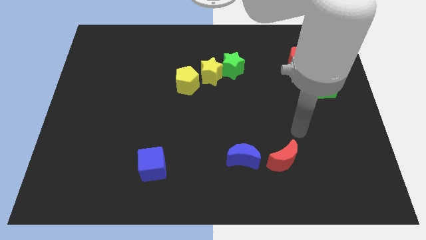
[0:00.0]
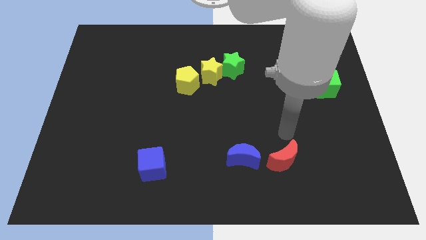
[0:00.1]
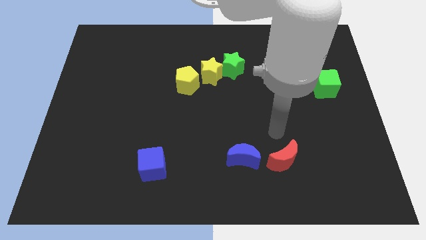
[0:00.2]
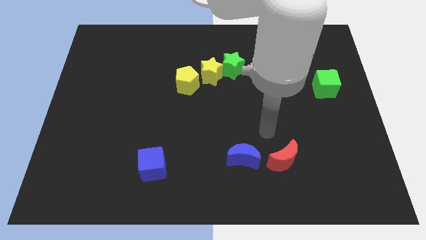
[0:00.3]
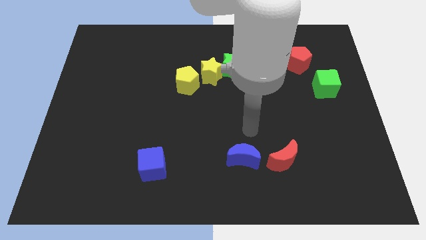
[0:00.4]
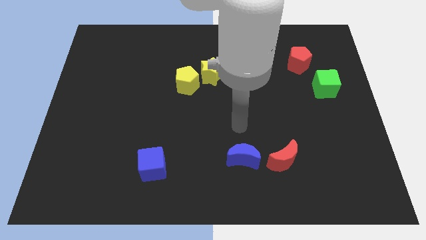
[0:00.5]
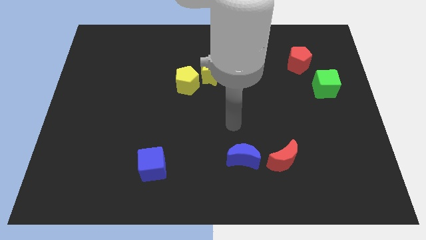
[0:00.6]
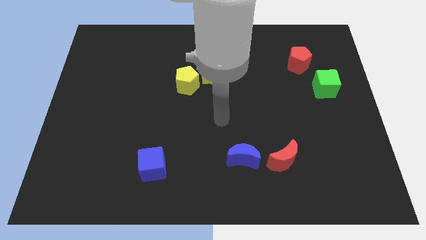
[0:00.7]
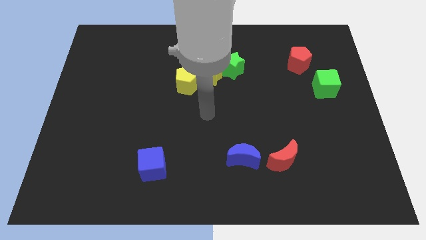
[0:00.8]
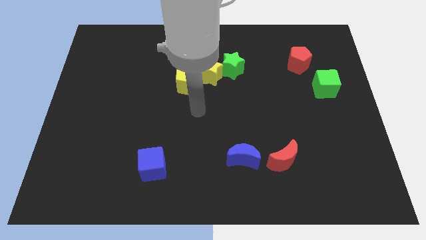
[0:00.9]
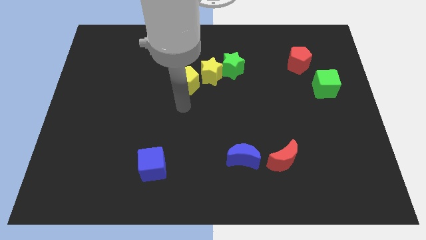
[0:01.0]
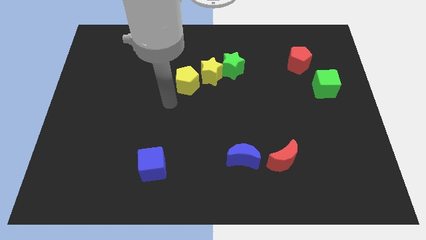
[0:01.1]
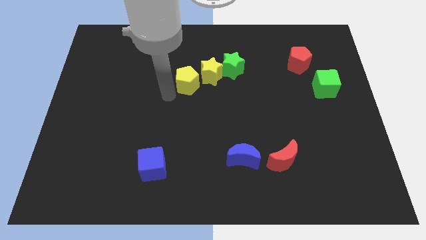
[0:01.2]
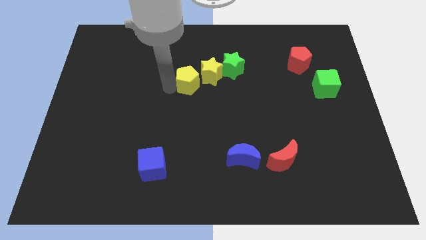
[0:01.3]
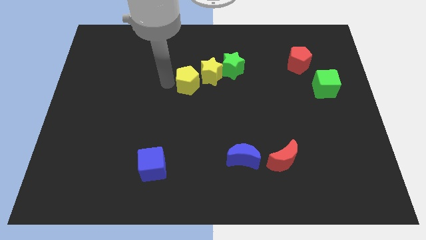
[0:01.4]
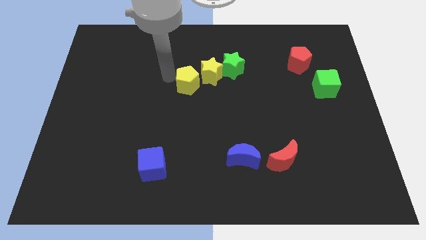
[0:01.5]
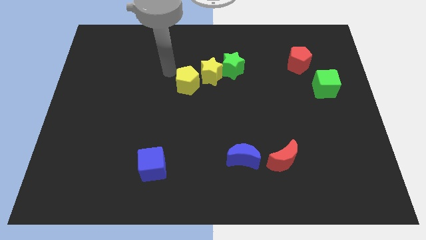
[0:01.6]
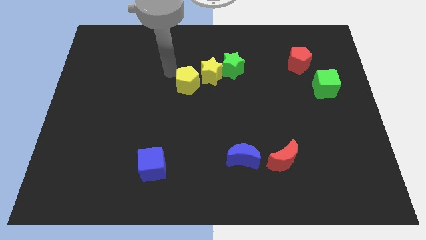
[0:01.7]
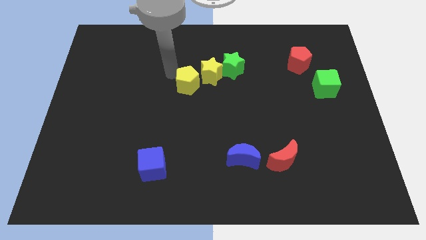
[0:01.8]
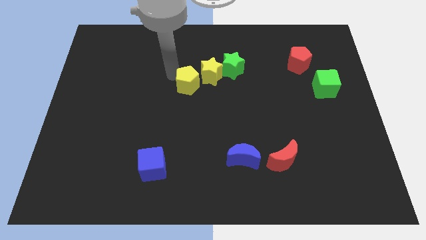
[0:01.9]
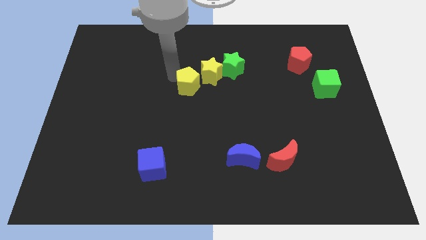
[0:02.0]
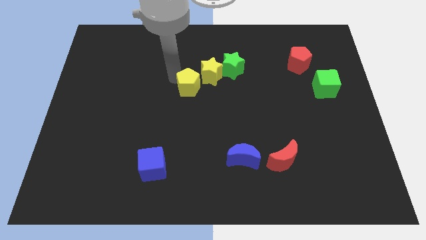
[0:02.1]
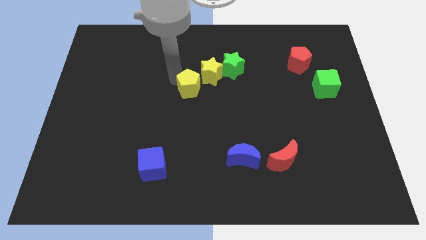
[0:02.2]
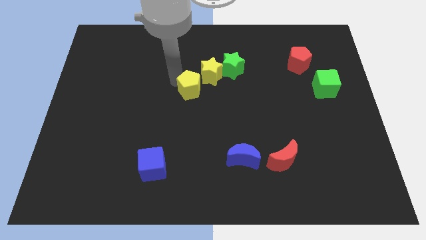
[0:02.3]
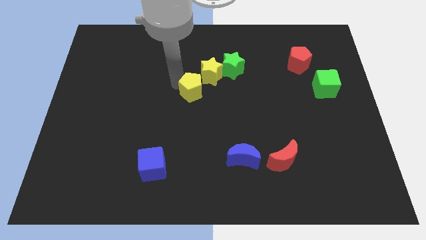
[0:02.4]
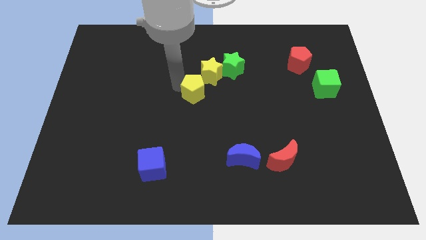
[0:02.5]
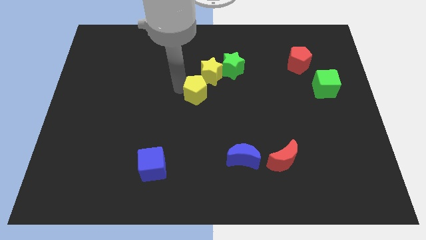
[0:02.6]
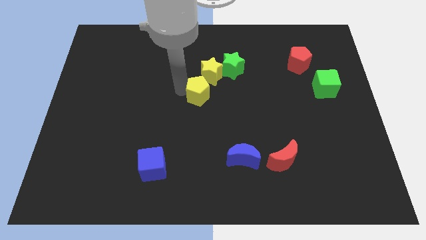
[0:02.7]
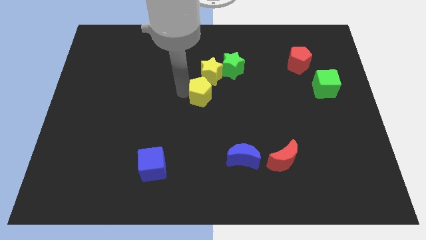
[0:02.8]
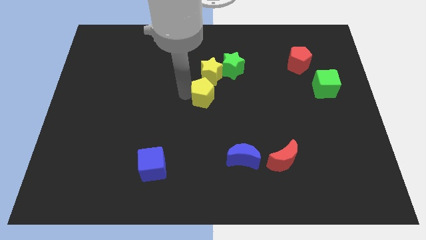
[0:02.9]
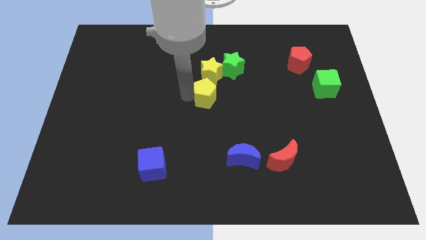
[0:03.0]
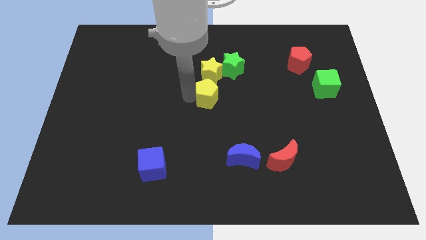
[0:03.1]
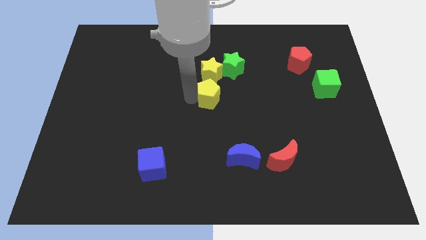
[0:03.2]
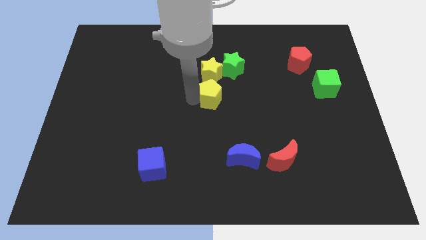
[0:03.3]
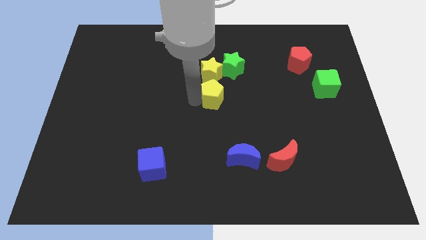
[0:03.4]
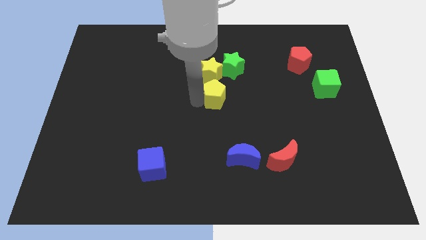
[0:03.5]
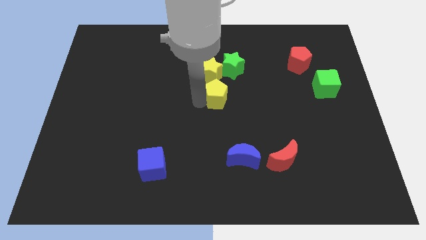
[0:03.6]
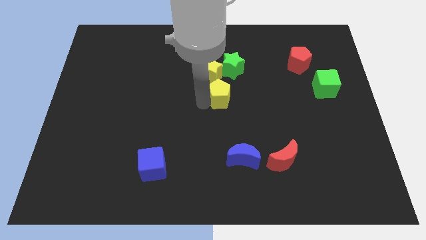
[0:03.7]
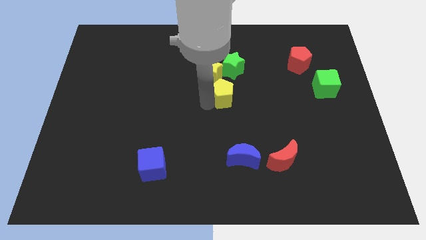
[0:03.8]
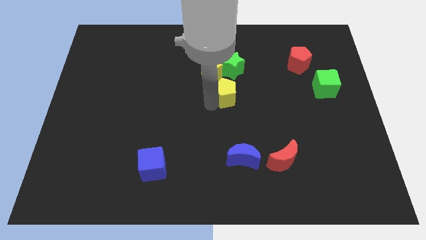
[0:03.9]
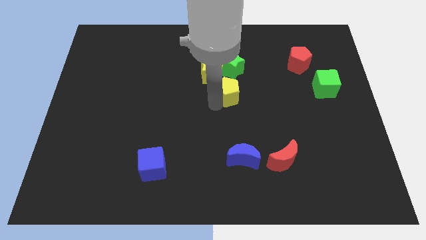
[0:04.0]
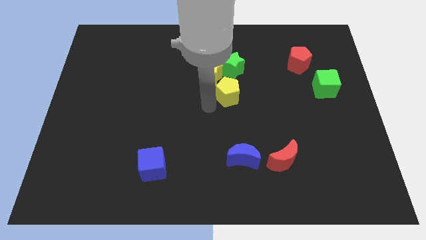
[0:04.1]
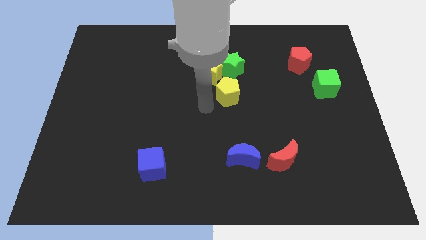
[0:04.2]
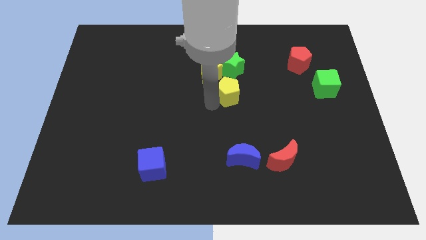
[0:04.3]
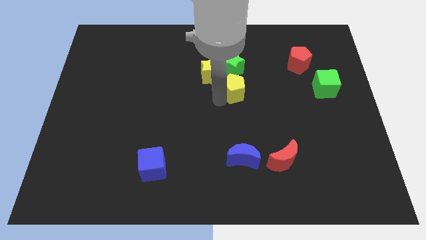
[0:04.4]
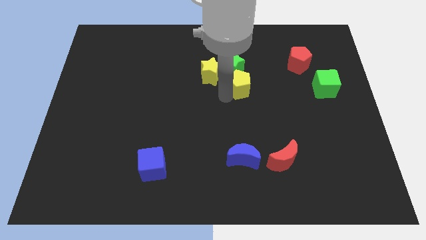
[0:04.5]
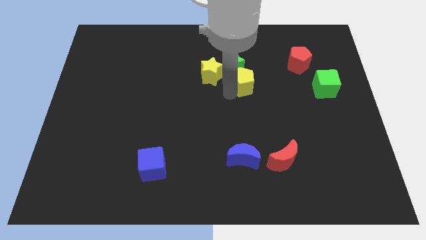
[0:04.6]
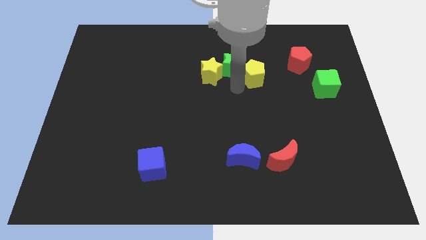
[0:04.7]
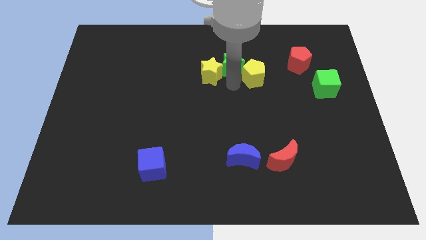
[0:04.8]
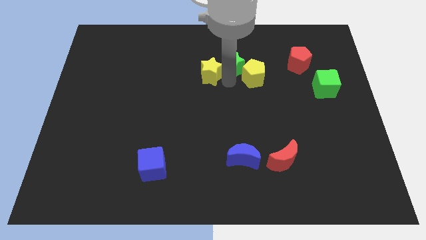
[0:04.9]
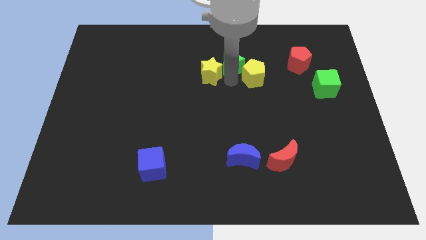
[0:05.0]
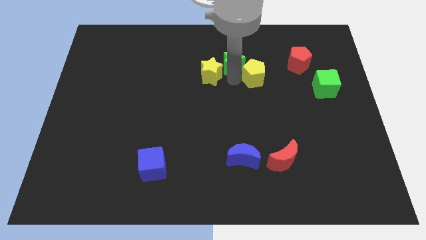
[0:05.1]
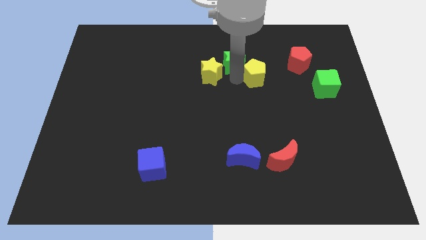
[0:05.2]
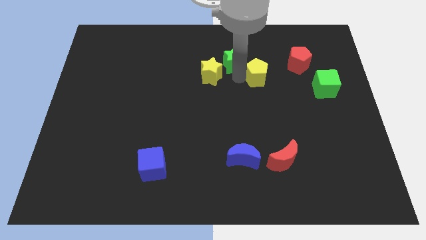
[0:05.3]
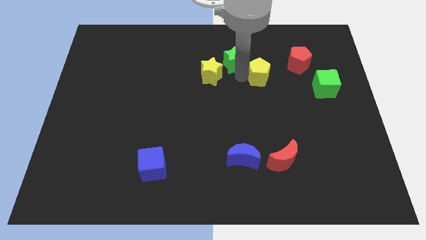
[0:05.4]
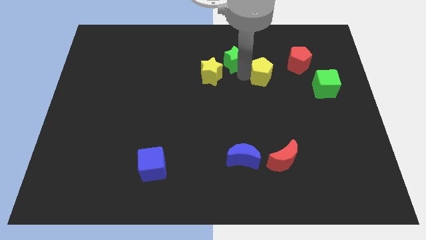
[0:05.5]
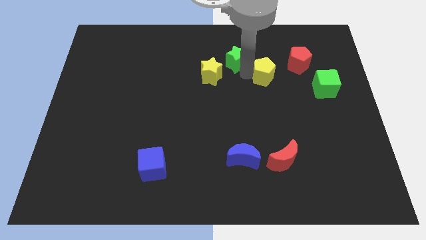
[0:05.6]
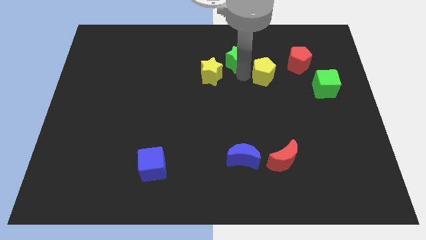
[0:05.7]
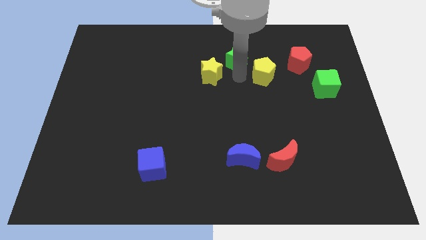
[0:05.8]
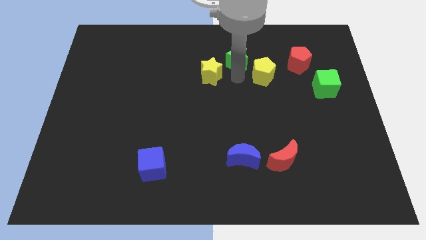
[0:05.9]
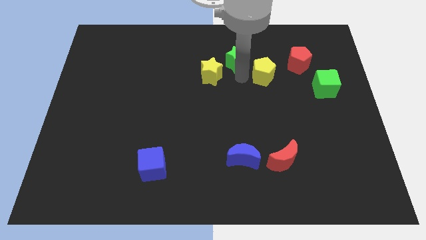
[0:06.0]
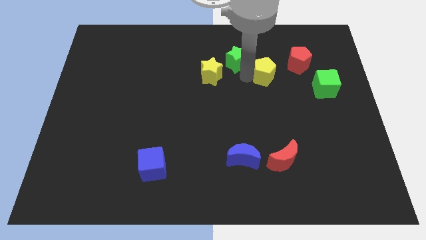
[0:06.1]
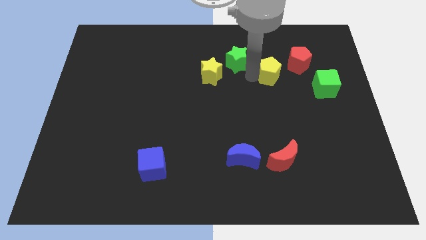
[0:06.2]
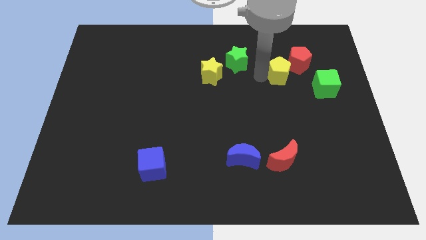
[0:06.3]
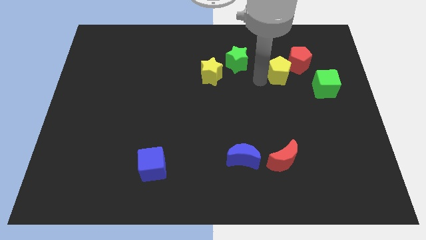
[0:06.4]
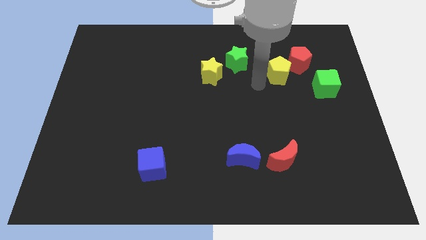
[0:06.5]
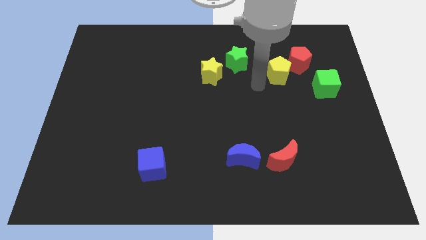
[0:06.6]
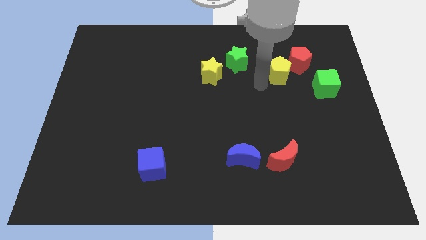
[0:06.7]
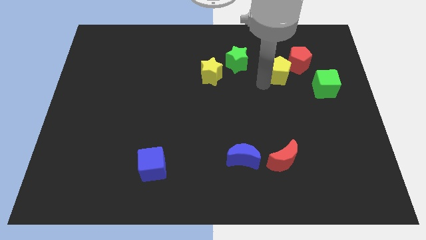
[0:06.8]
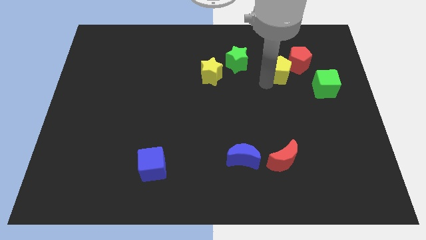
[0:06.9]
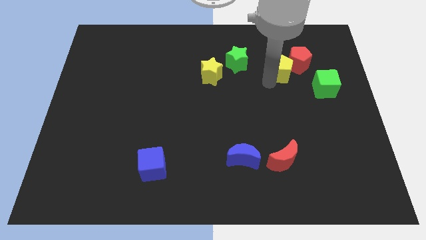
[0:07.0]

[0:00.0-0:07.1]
slide the yellow pentagon close to the red pentagon
